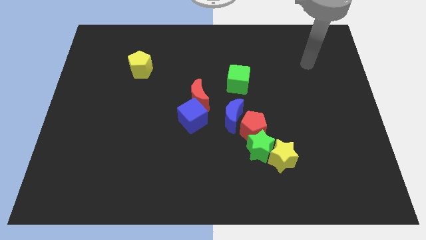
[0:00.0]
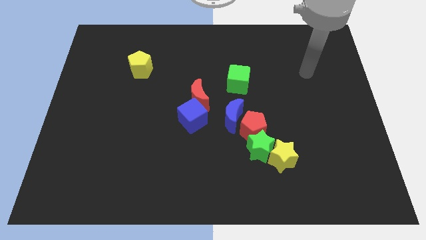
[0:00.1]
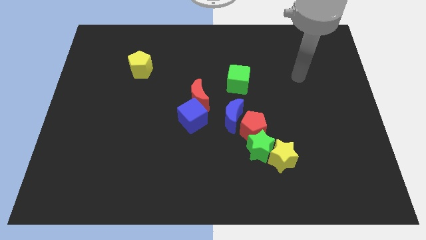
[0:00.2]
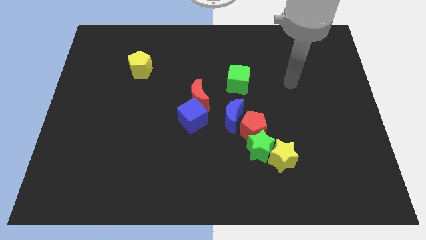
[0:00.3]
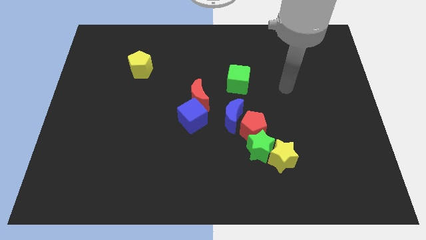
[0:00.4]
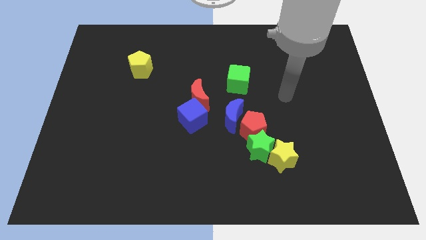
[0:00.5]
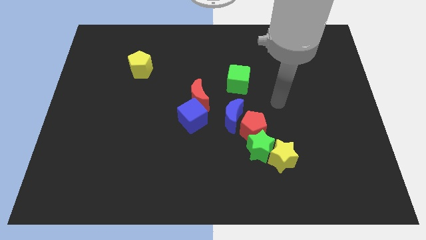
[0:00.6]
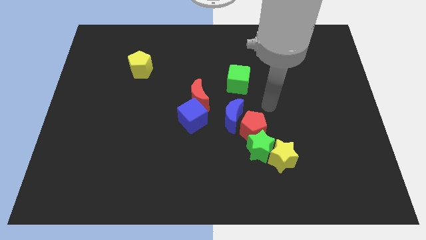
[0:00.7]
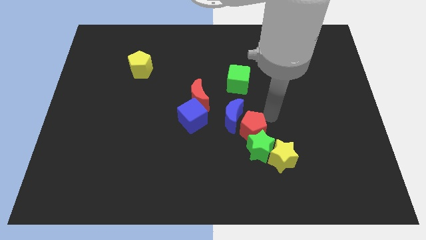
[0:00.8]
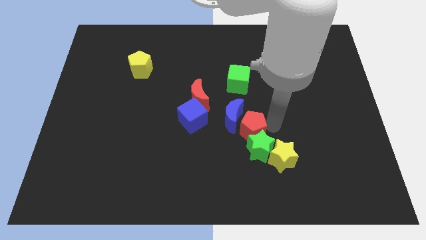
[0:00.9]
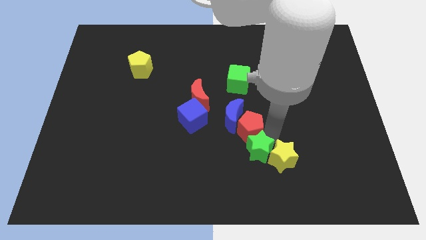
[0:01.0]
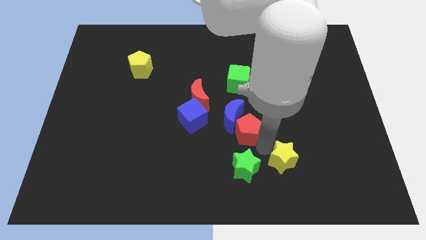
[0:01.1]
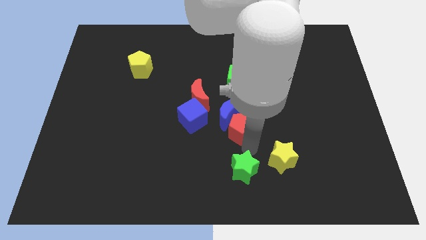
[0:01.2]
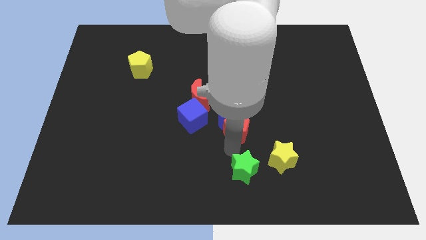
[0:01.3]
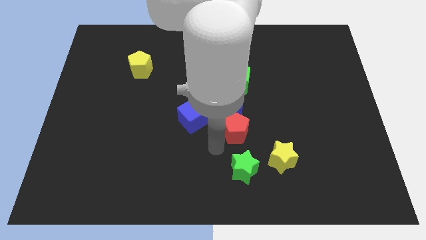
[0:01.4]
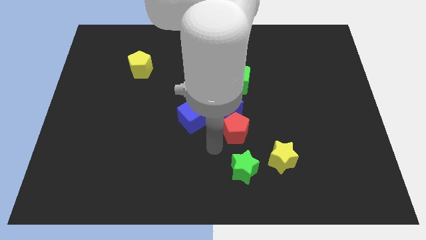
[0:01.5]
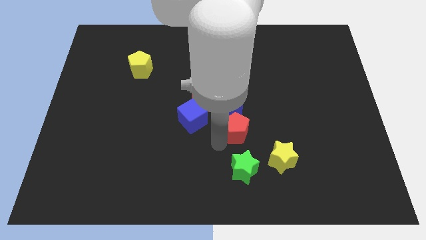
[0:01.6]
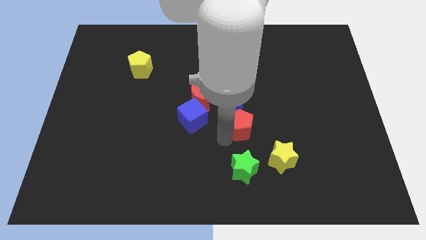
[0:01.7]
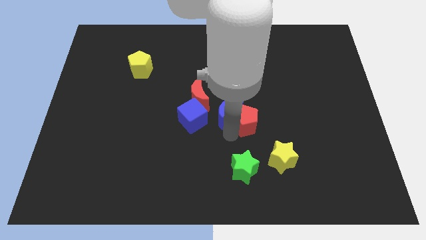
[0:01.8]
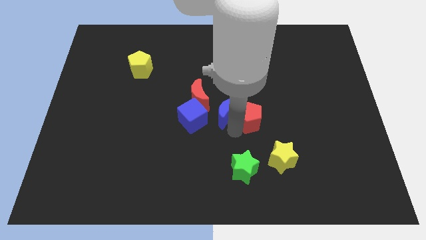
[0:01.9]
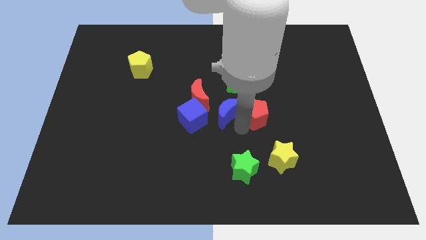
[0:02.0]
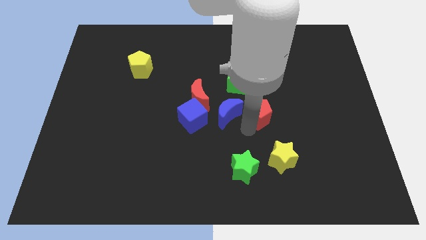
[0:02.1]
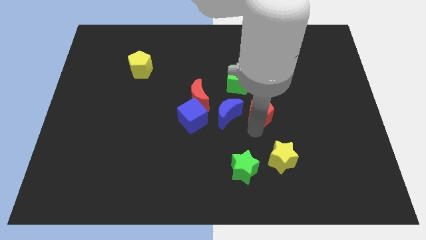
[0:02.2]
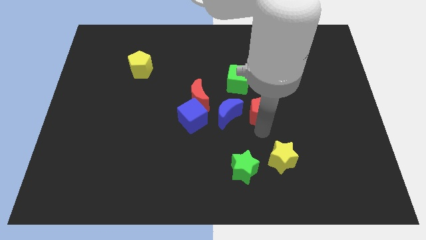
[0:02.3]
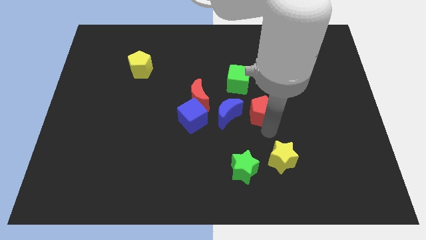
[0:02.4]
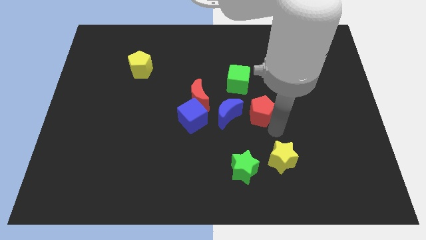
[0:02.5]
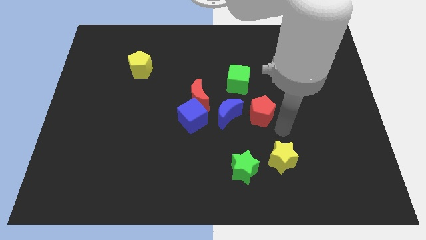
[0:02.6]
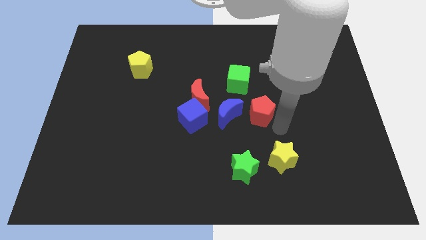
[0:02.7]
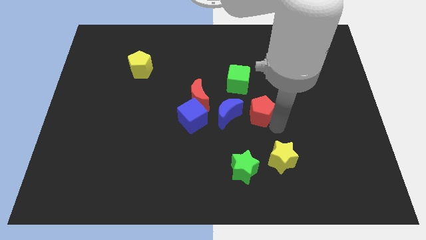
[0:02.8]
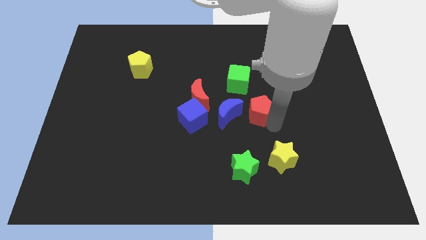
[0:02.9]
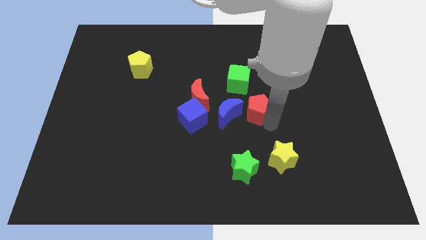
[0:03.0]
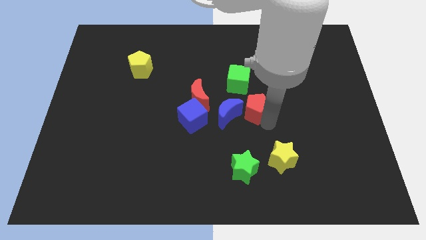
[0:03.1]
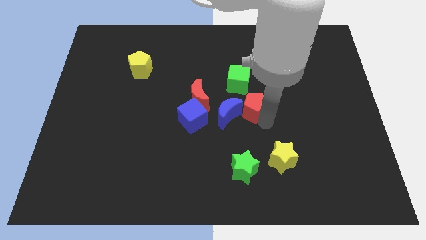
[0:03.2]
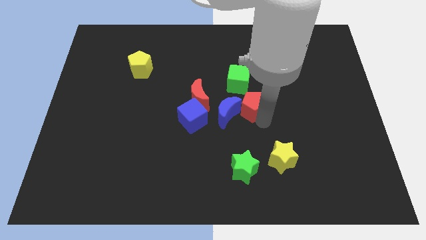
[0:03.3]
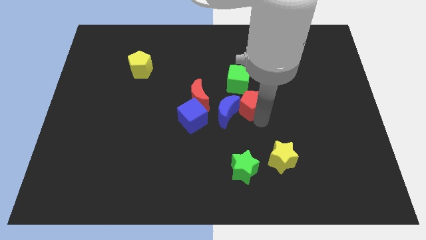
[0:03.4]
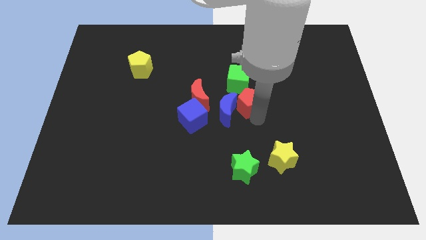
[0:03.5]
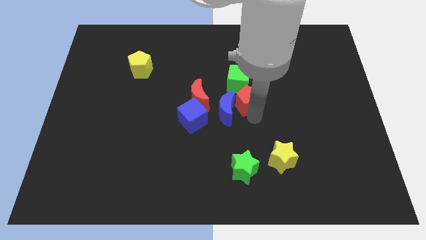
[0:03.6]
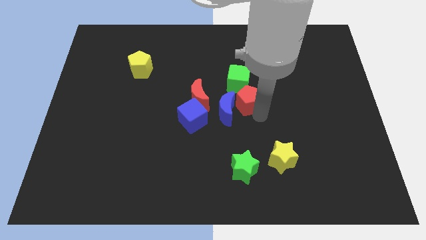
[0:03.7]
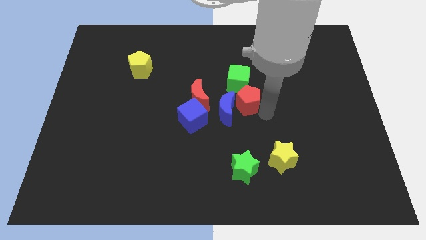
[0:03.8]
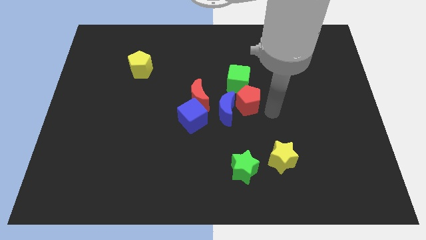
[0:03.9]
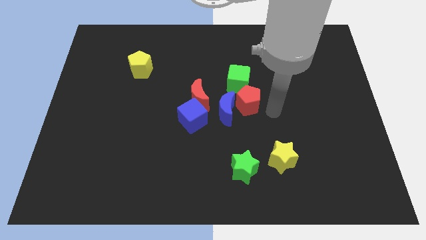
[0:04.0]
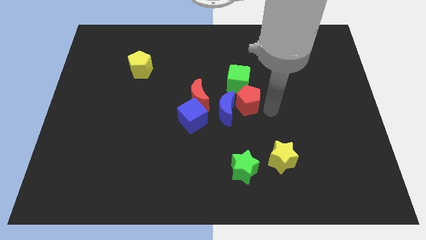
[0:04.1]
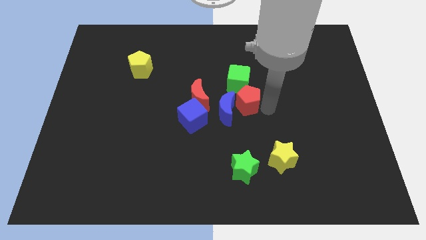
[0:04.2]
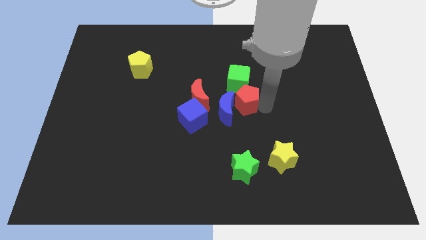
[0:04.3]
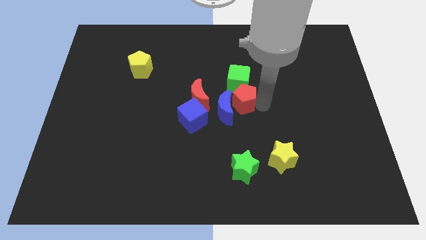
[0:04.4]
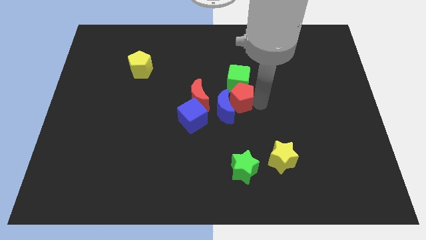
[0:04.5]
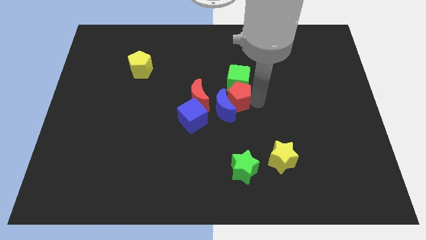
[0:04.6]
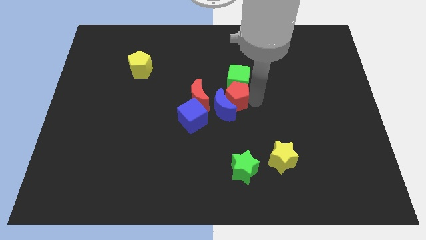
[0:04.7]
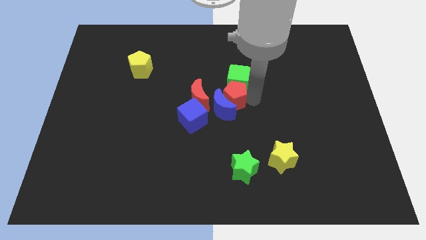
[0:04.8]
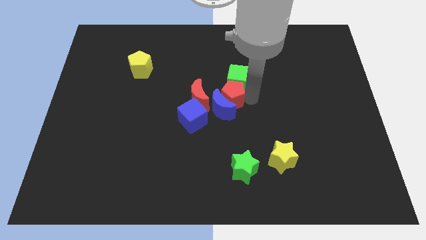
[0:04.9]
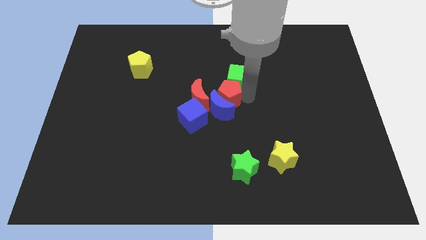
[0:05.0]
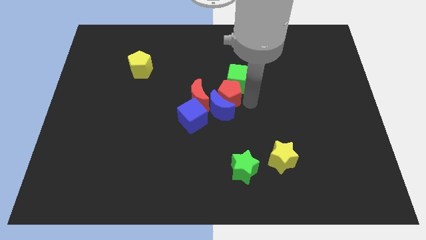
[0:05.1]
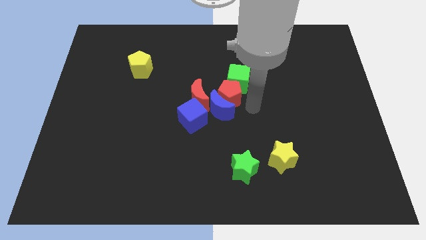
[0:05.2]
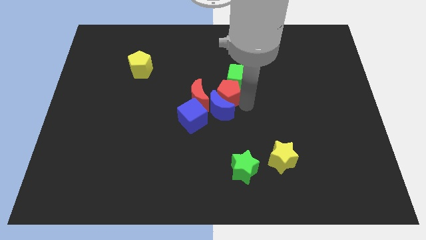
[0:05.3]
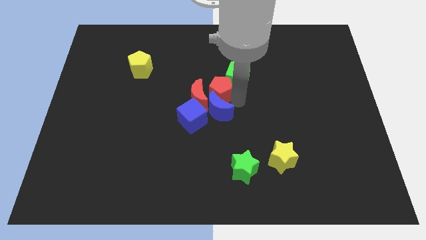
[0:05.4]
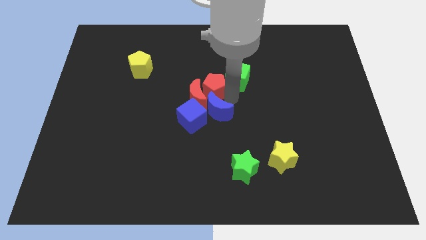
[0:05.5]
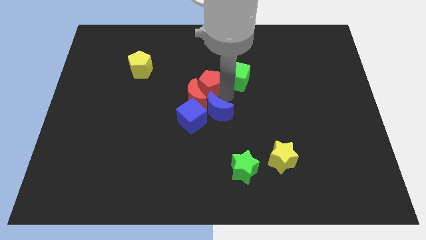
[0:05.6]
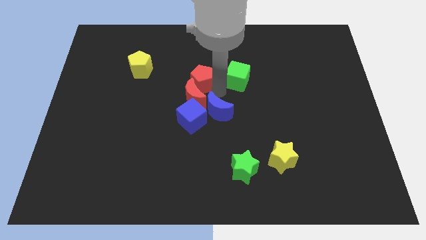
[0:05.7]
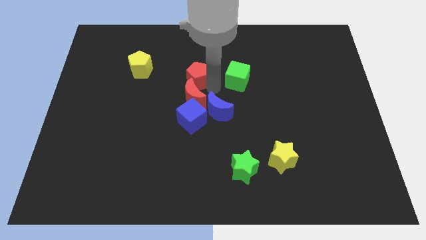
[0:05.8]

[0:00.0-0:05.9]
push the red pentagon upwards and to the left diagonally

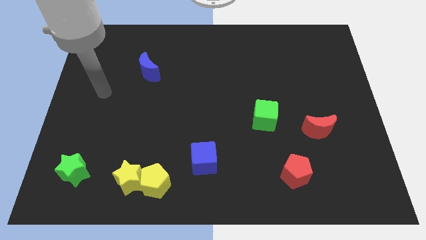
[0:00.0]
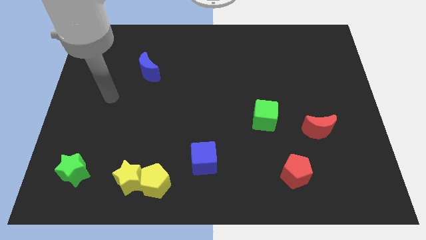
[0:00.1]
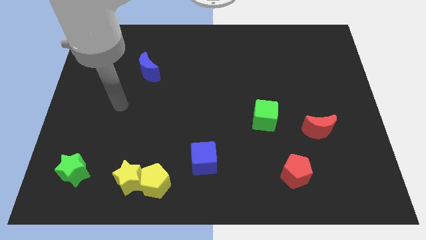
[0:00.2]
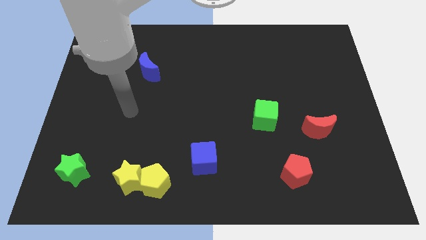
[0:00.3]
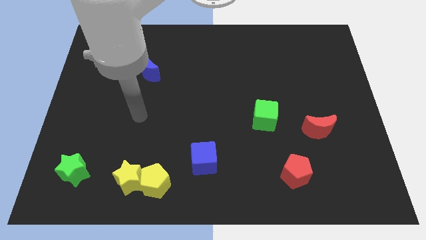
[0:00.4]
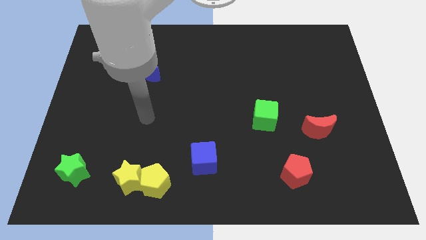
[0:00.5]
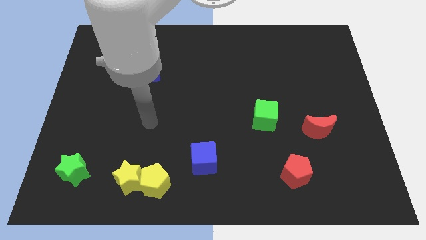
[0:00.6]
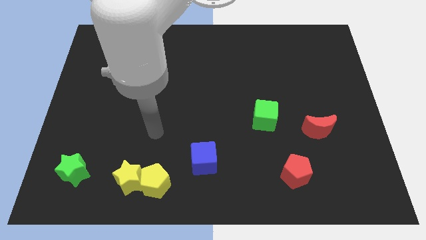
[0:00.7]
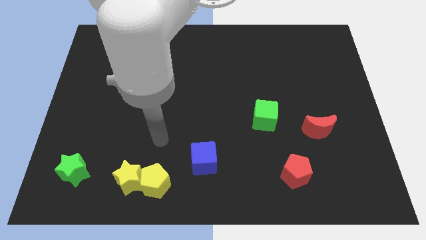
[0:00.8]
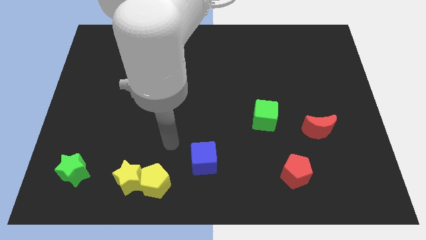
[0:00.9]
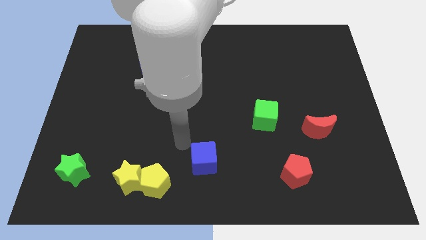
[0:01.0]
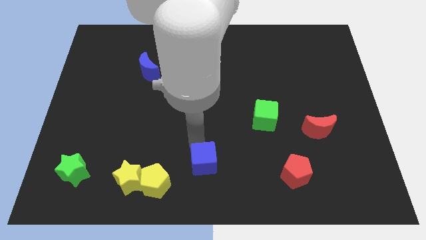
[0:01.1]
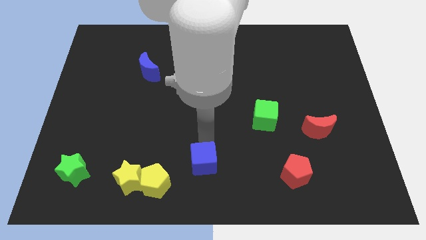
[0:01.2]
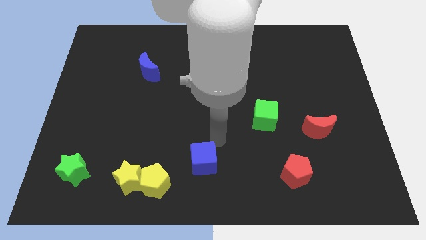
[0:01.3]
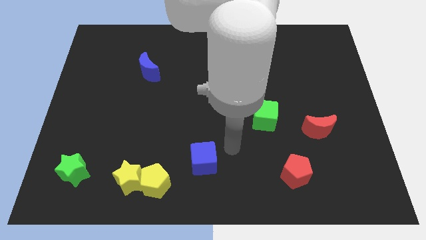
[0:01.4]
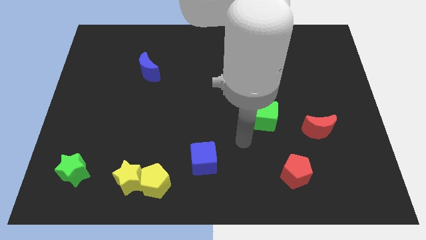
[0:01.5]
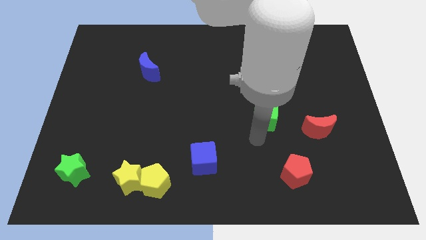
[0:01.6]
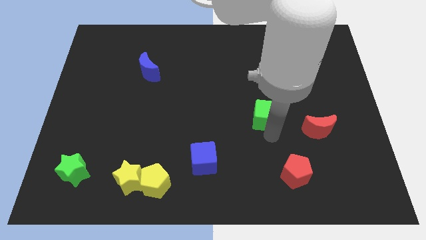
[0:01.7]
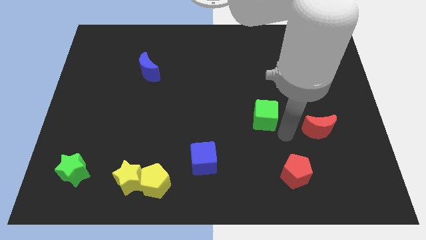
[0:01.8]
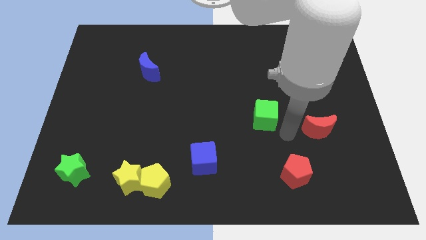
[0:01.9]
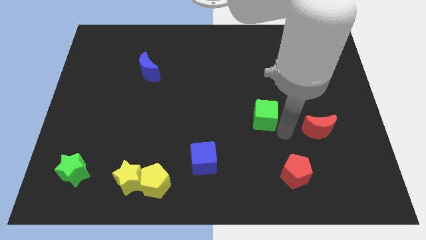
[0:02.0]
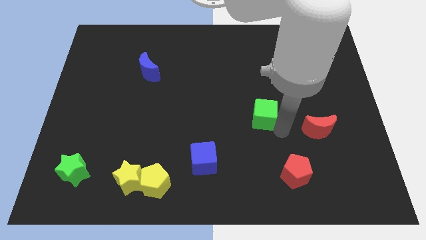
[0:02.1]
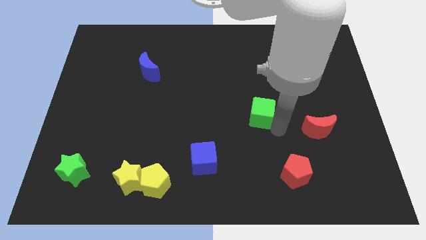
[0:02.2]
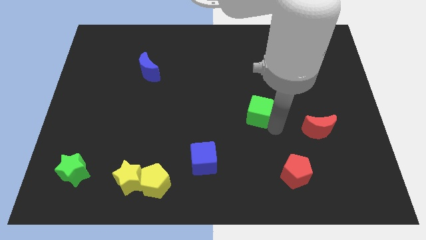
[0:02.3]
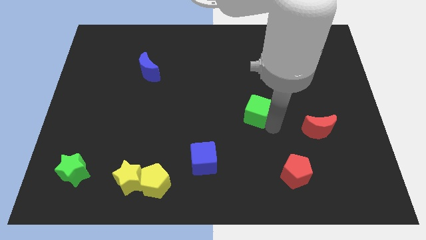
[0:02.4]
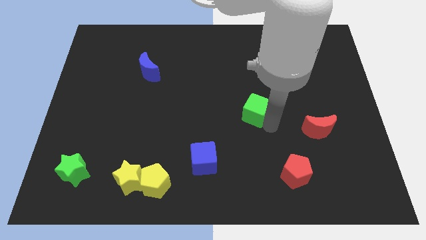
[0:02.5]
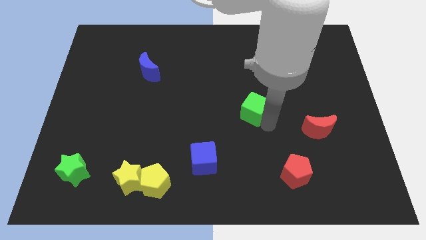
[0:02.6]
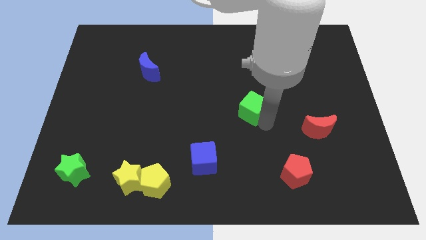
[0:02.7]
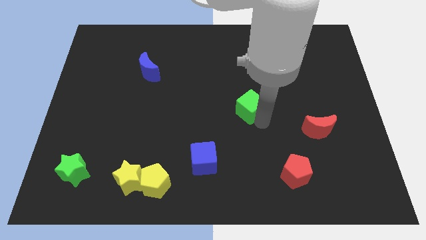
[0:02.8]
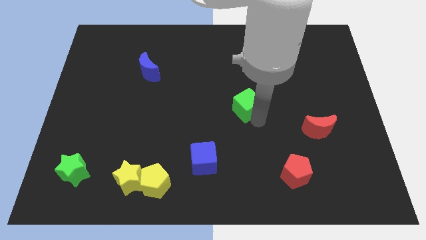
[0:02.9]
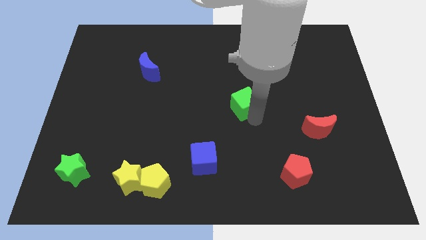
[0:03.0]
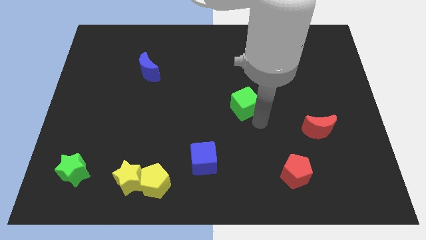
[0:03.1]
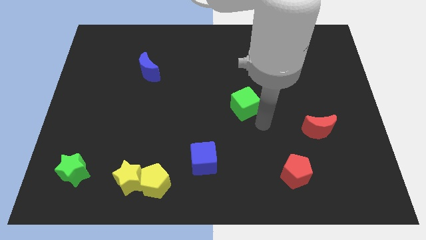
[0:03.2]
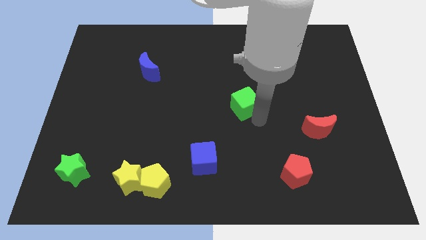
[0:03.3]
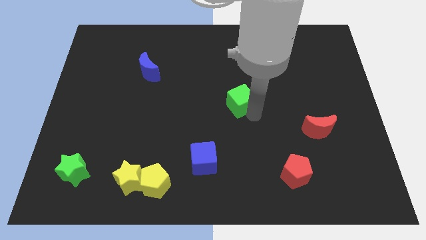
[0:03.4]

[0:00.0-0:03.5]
push the green cube somewhat up and then left
